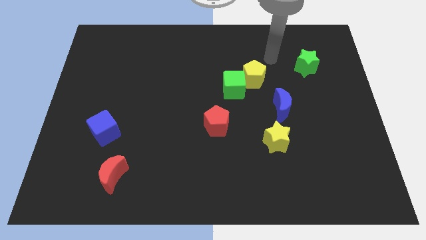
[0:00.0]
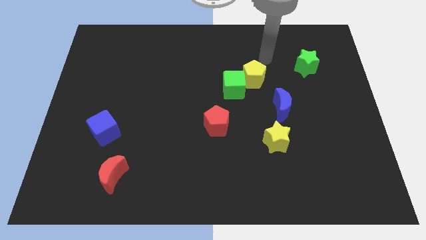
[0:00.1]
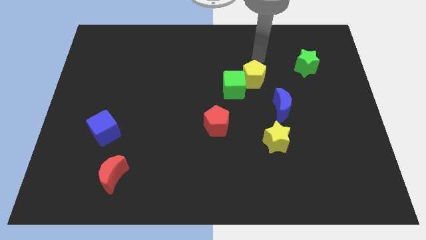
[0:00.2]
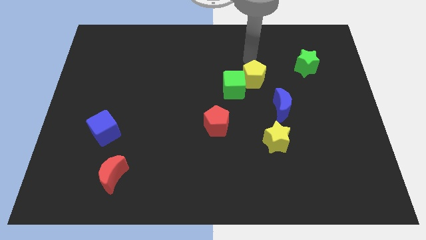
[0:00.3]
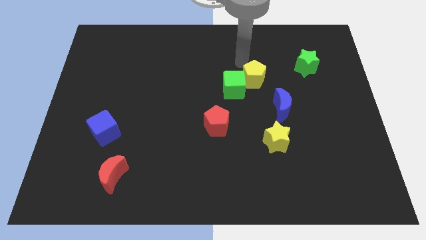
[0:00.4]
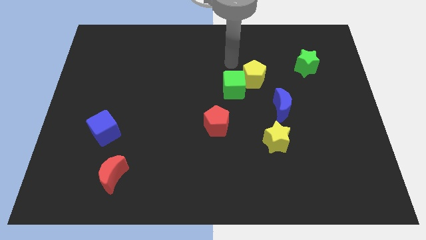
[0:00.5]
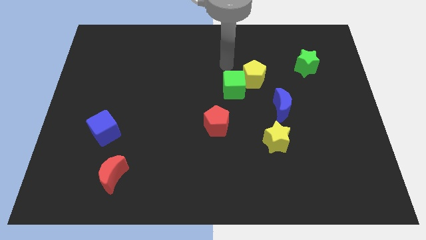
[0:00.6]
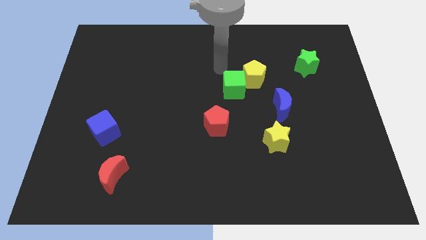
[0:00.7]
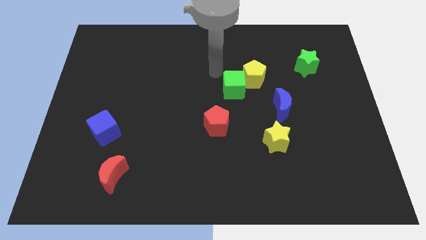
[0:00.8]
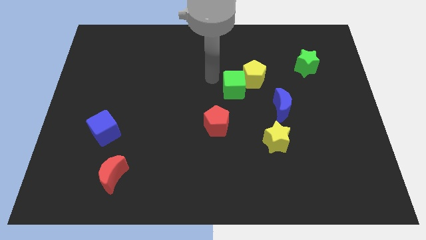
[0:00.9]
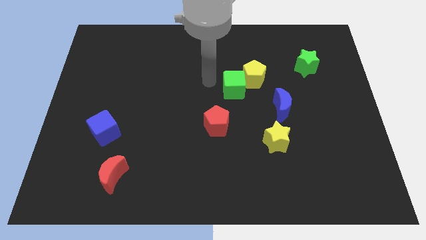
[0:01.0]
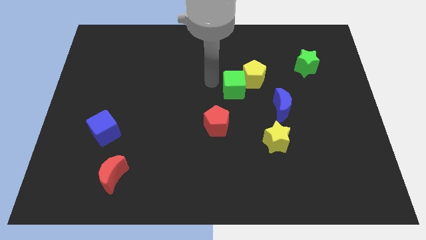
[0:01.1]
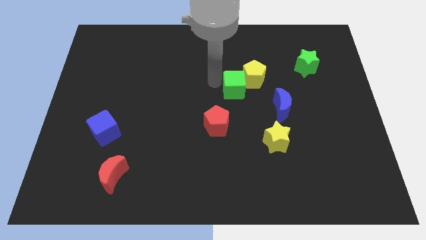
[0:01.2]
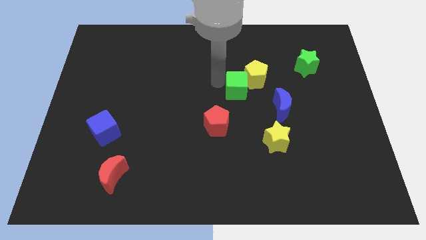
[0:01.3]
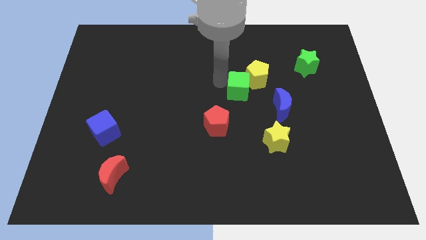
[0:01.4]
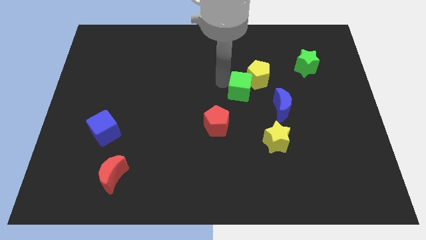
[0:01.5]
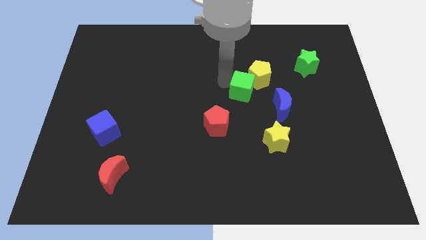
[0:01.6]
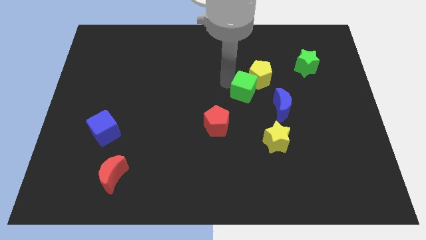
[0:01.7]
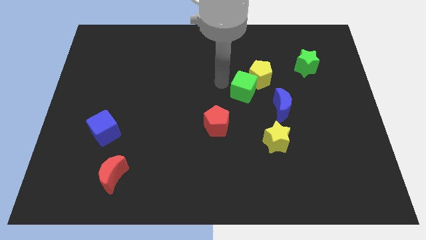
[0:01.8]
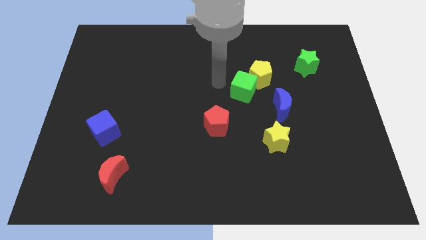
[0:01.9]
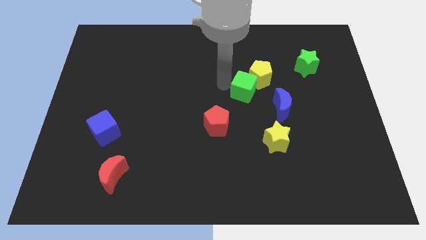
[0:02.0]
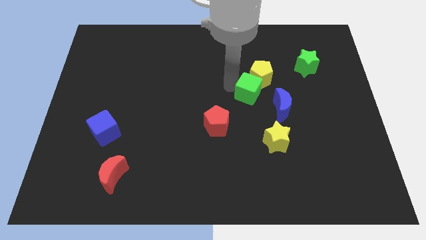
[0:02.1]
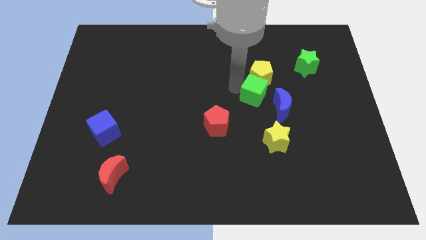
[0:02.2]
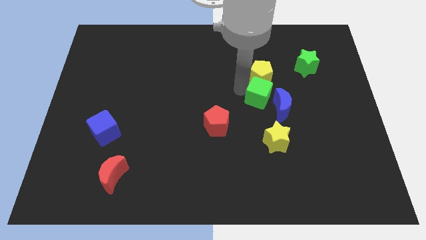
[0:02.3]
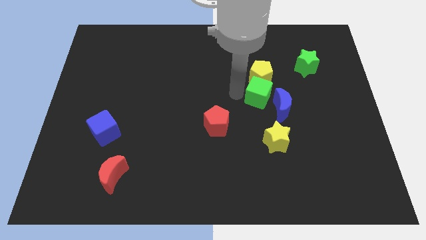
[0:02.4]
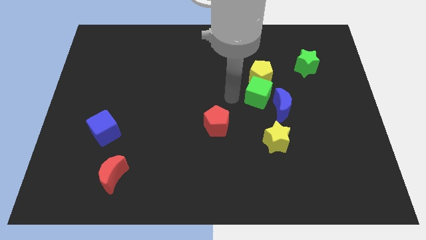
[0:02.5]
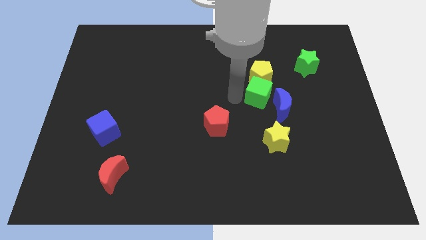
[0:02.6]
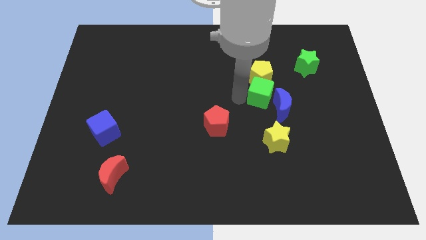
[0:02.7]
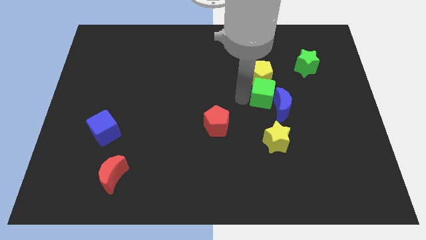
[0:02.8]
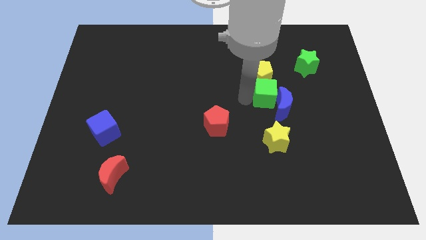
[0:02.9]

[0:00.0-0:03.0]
slightly move the green cube to the right

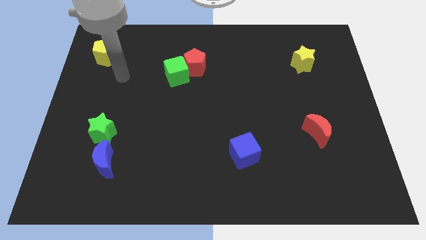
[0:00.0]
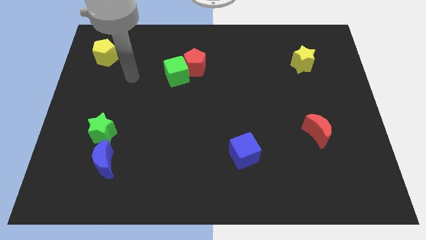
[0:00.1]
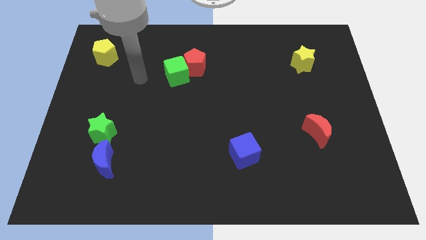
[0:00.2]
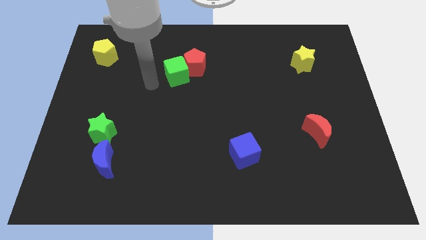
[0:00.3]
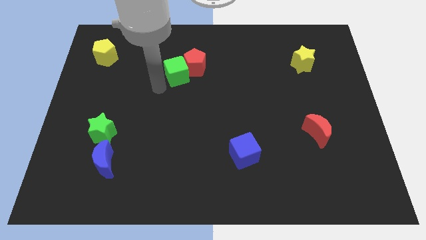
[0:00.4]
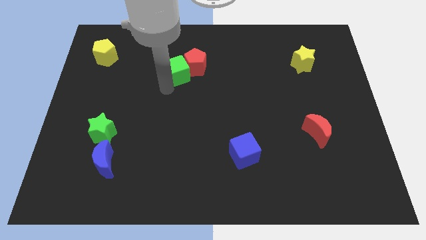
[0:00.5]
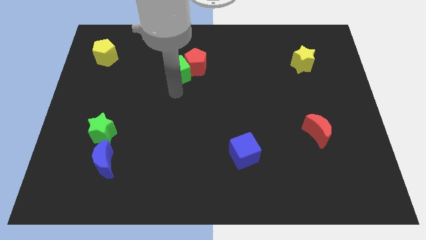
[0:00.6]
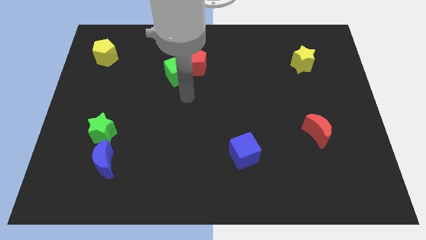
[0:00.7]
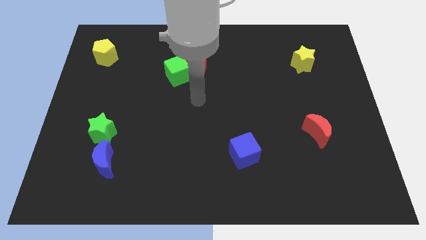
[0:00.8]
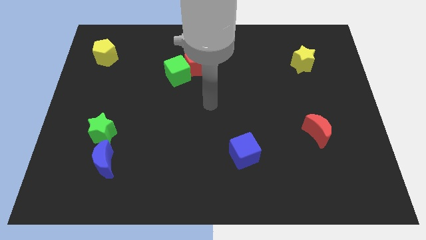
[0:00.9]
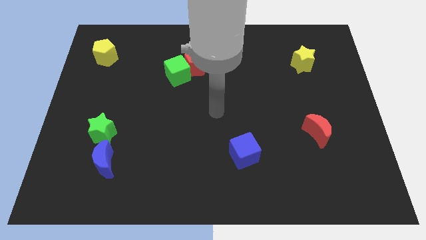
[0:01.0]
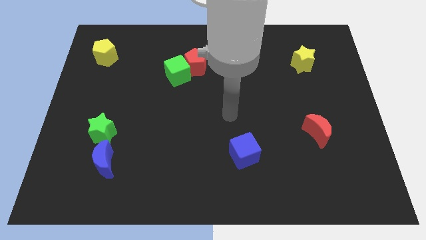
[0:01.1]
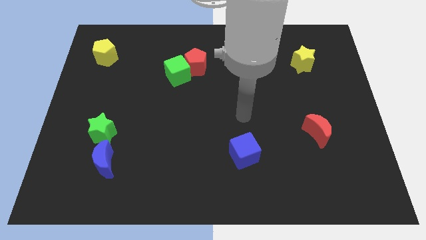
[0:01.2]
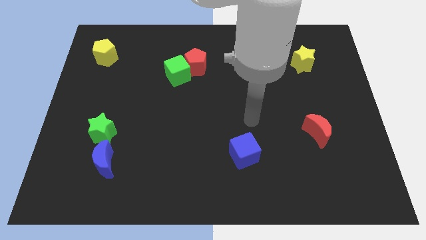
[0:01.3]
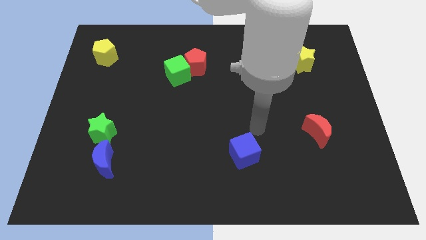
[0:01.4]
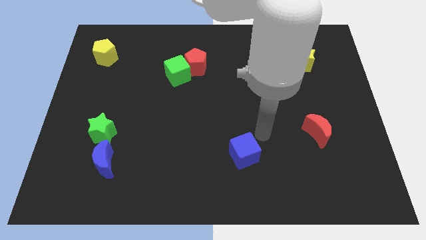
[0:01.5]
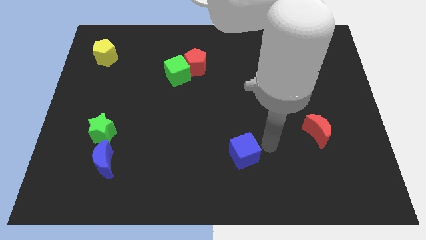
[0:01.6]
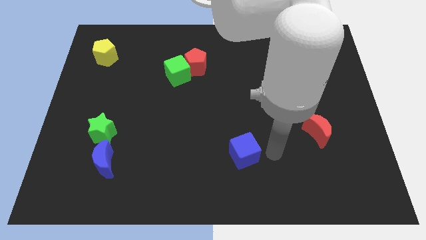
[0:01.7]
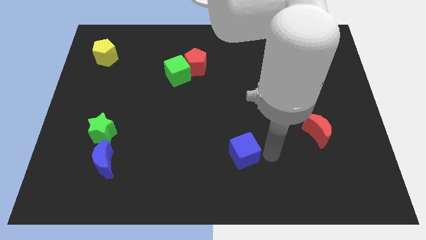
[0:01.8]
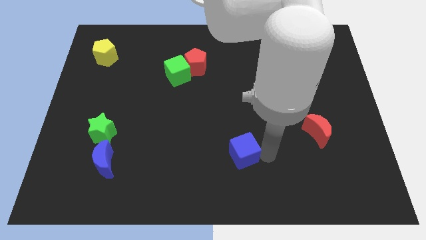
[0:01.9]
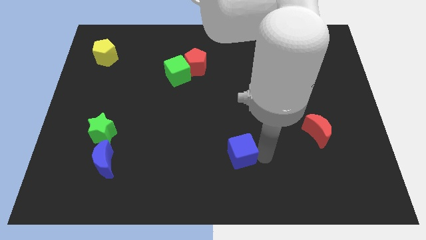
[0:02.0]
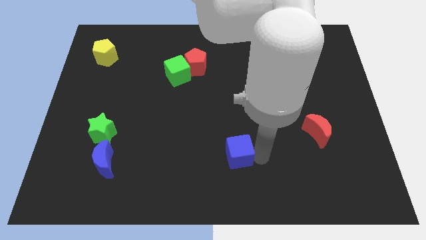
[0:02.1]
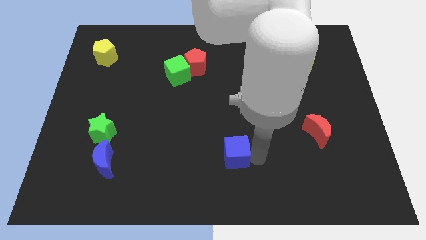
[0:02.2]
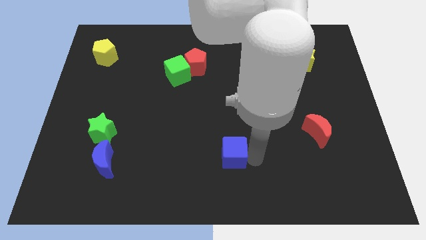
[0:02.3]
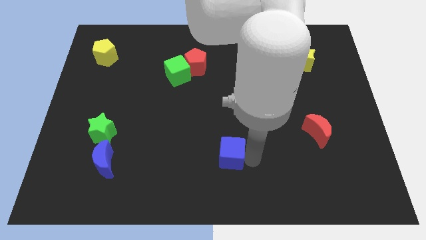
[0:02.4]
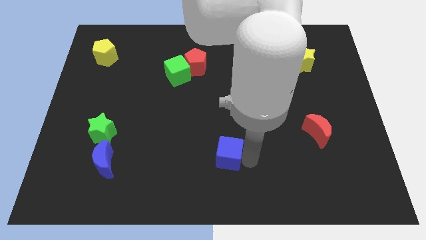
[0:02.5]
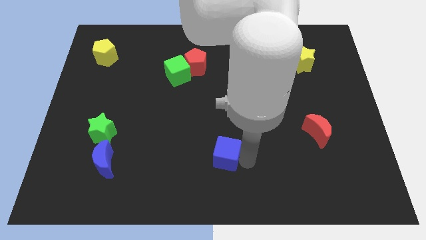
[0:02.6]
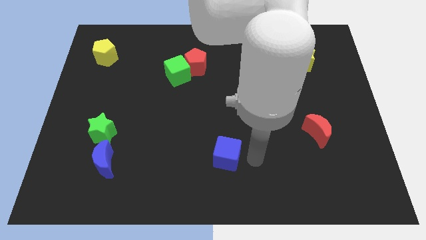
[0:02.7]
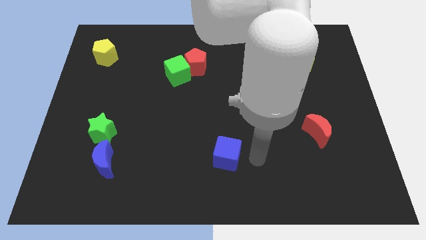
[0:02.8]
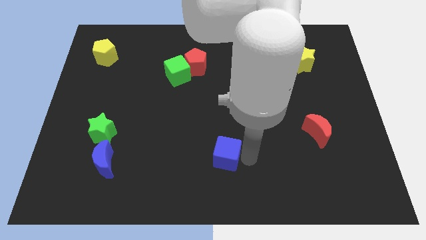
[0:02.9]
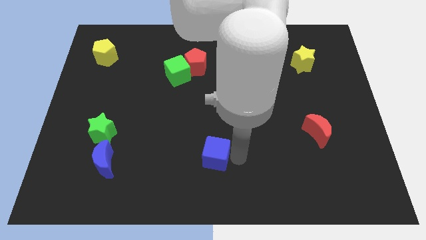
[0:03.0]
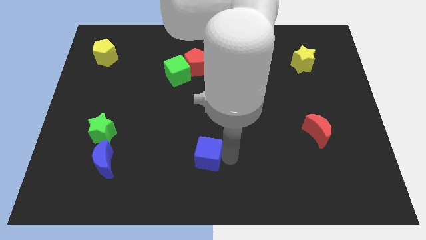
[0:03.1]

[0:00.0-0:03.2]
push the blue cube a little to the left

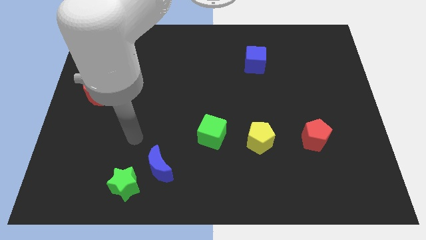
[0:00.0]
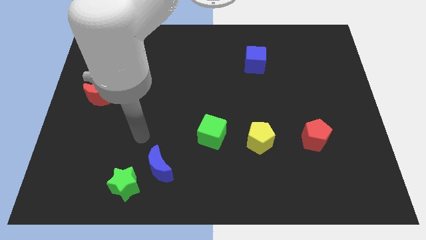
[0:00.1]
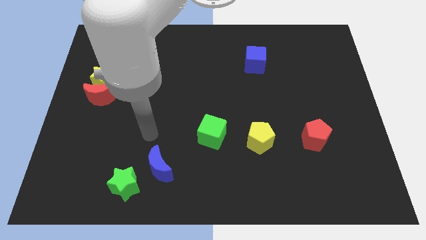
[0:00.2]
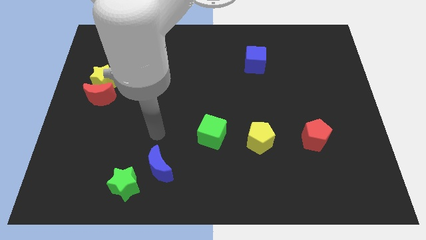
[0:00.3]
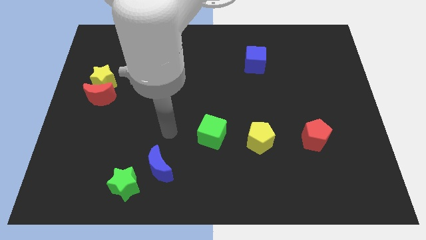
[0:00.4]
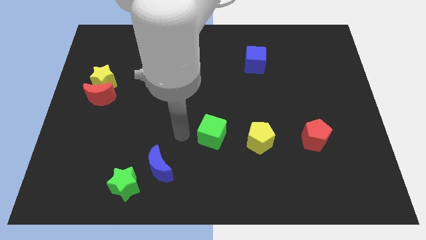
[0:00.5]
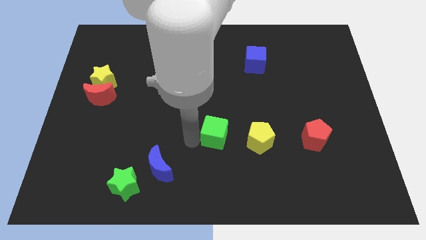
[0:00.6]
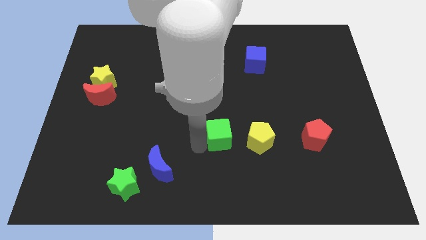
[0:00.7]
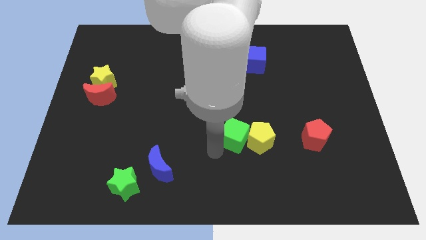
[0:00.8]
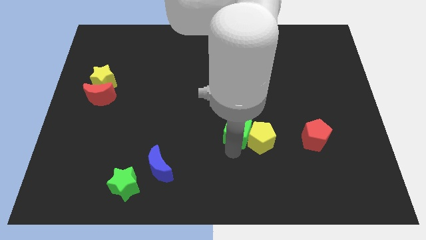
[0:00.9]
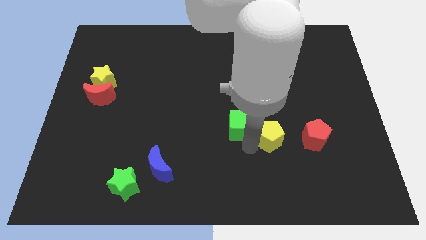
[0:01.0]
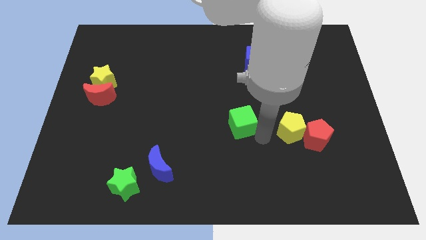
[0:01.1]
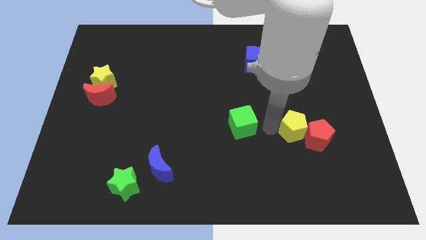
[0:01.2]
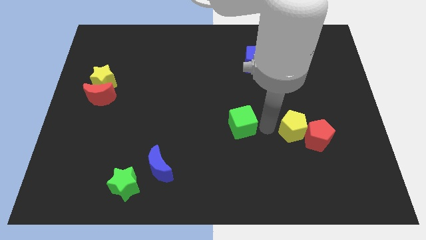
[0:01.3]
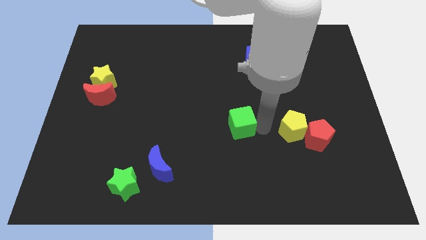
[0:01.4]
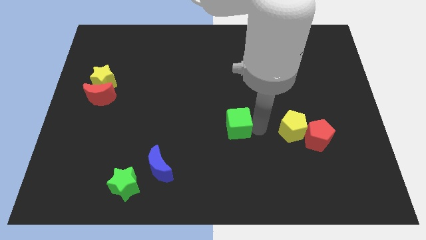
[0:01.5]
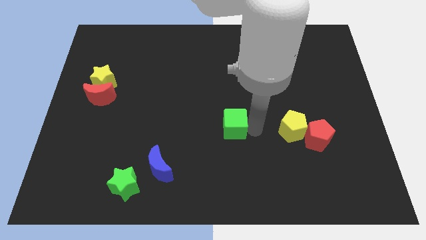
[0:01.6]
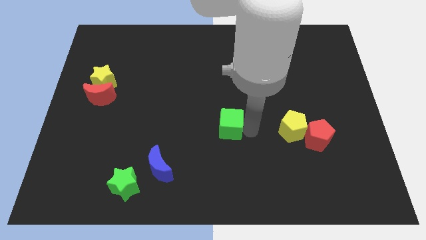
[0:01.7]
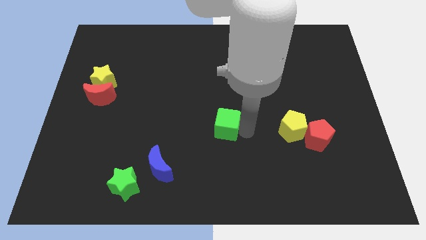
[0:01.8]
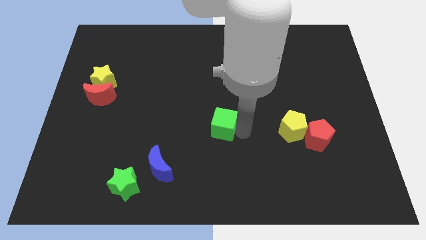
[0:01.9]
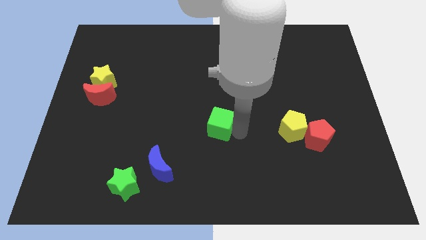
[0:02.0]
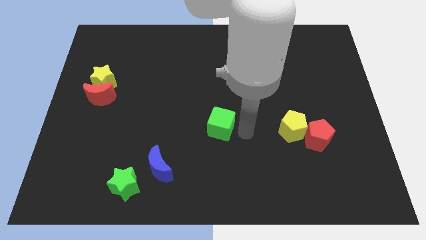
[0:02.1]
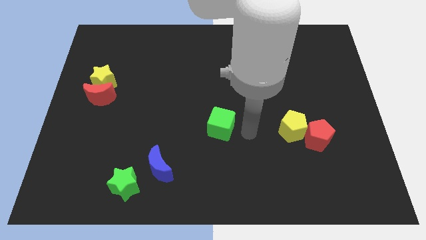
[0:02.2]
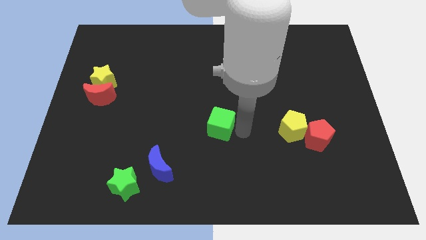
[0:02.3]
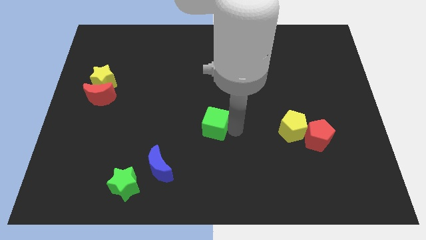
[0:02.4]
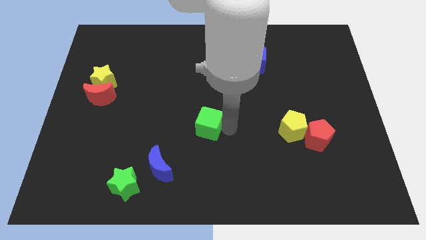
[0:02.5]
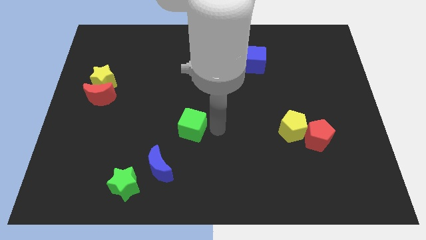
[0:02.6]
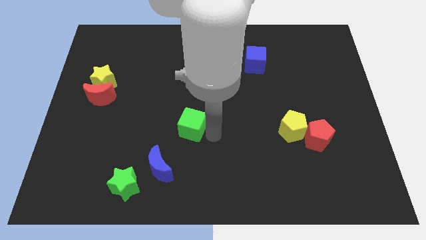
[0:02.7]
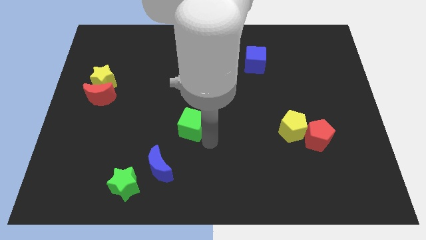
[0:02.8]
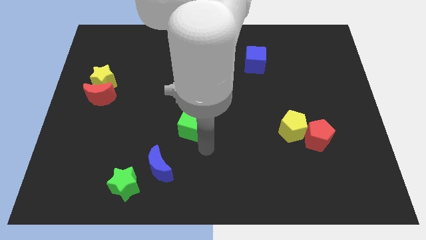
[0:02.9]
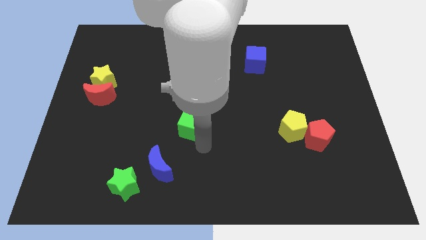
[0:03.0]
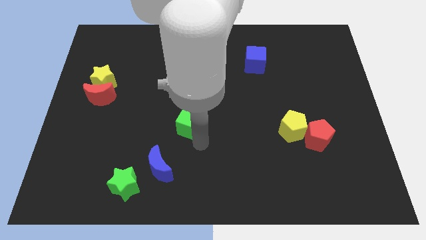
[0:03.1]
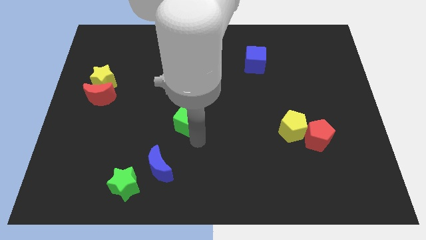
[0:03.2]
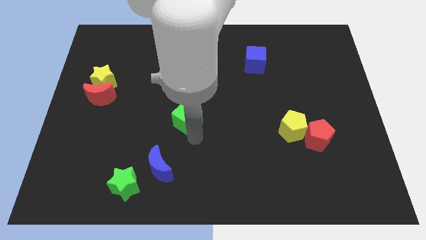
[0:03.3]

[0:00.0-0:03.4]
push the green cube upwards and then left a little
